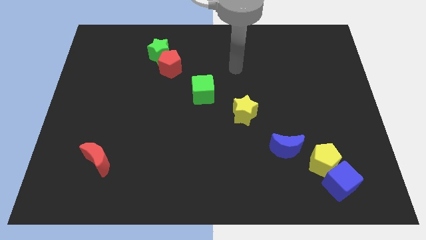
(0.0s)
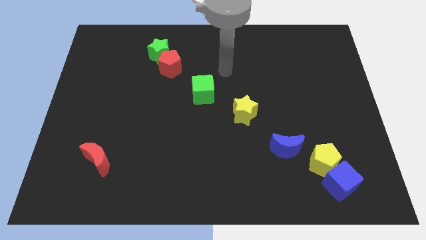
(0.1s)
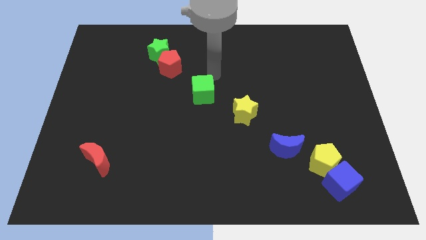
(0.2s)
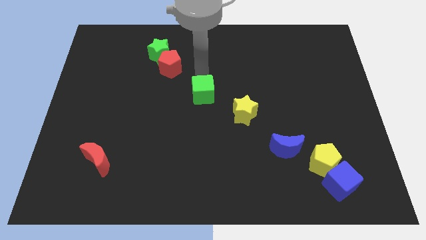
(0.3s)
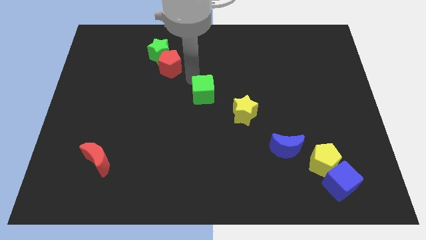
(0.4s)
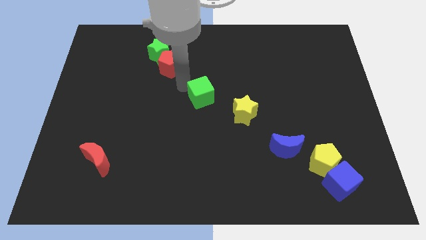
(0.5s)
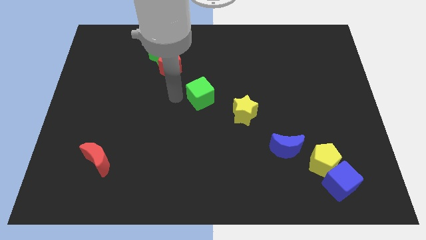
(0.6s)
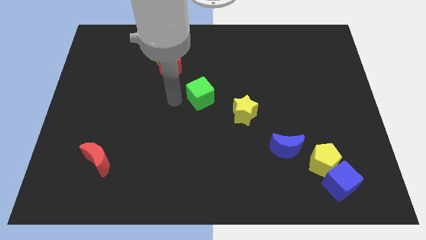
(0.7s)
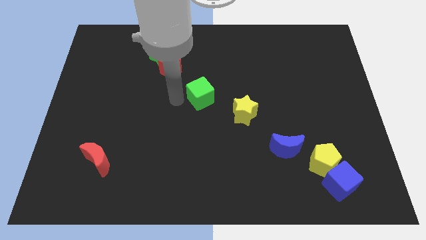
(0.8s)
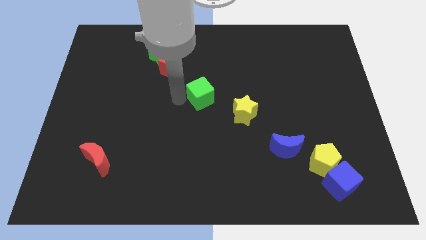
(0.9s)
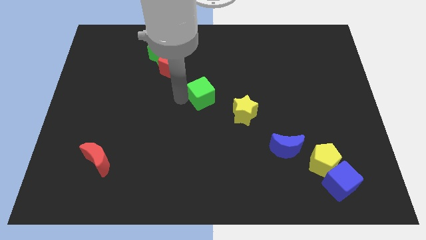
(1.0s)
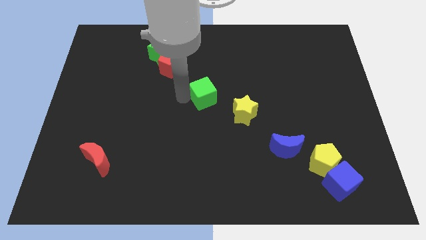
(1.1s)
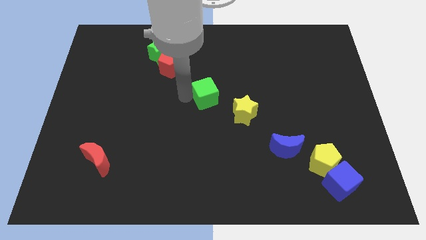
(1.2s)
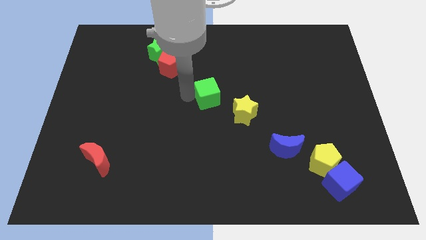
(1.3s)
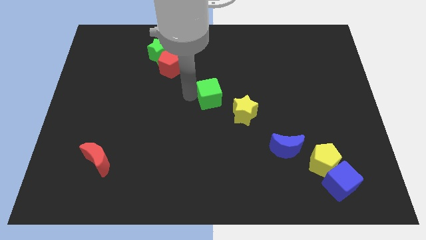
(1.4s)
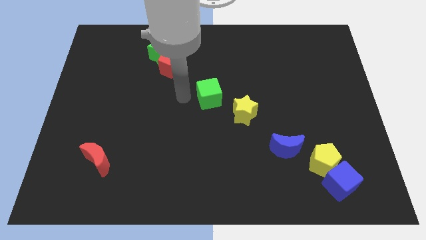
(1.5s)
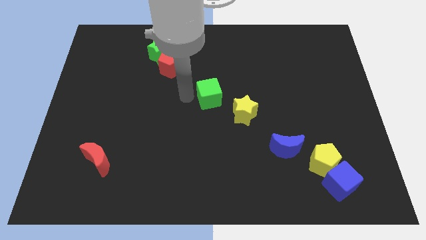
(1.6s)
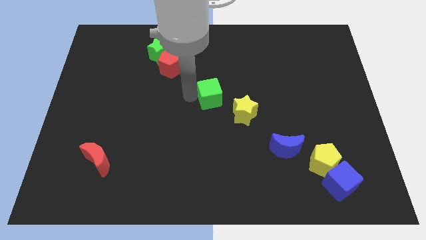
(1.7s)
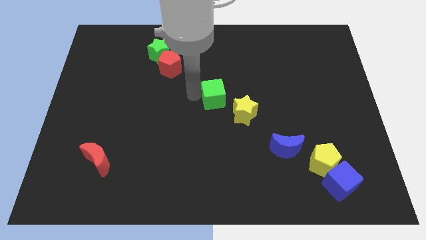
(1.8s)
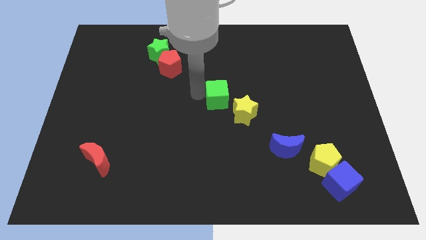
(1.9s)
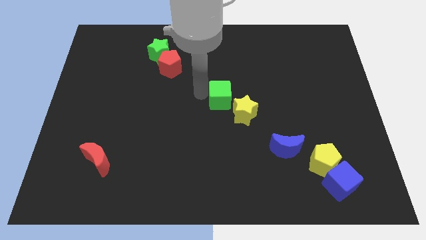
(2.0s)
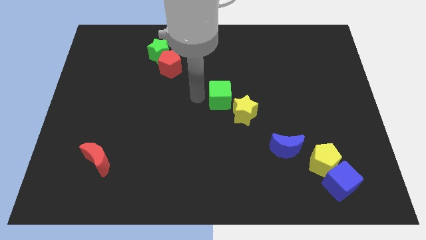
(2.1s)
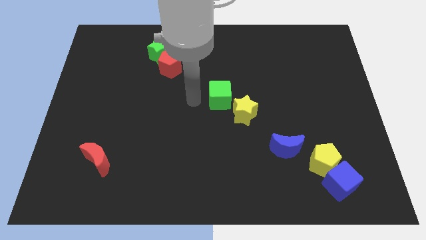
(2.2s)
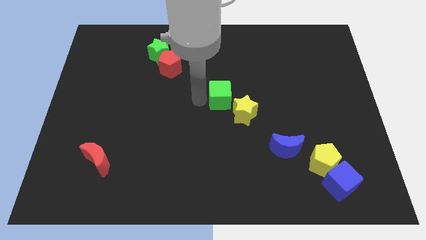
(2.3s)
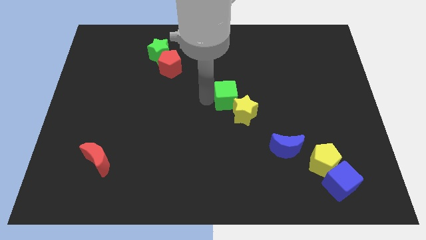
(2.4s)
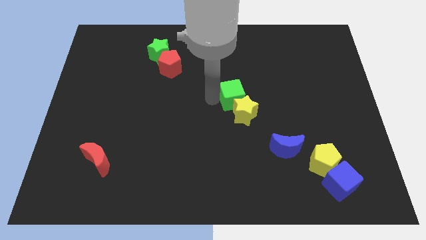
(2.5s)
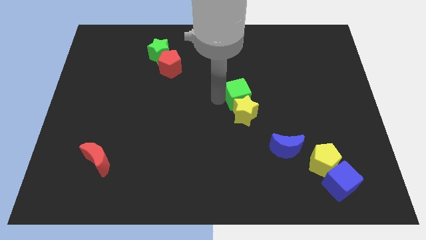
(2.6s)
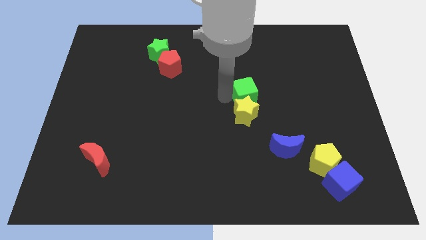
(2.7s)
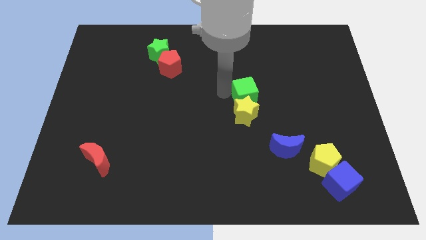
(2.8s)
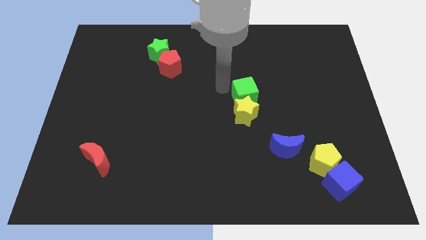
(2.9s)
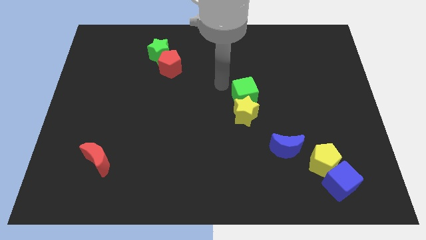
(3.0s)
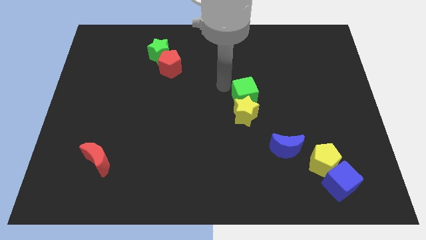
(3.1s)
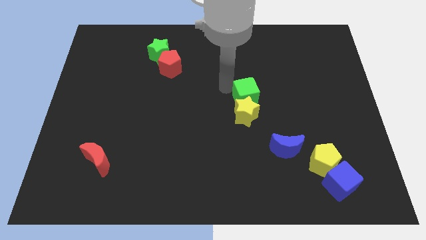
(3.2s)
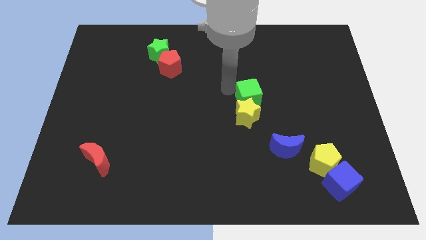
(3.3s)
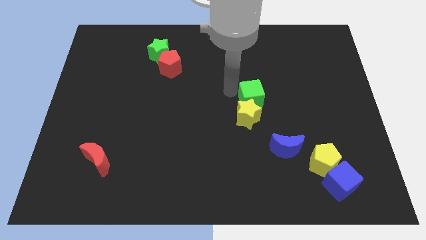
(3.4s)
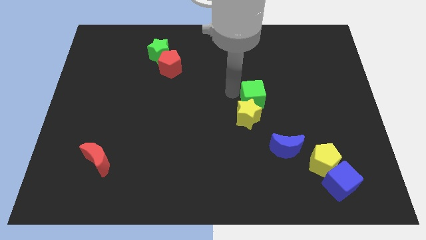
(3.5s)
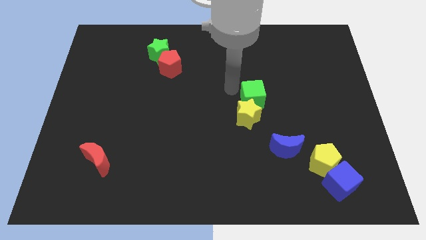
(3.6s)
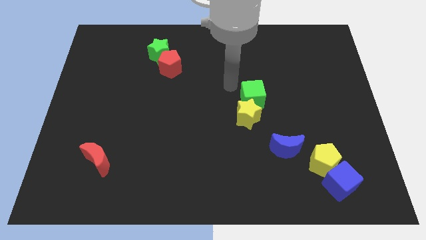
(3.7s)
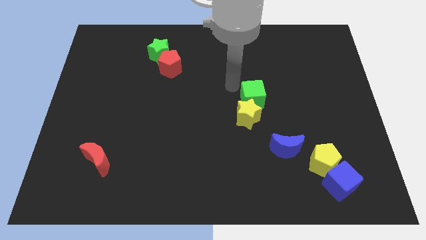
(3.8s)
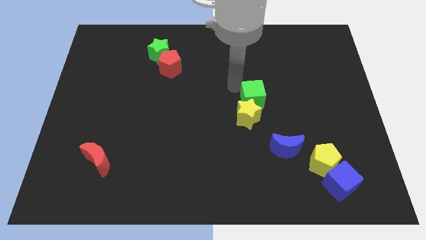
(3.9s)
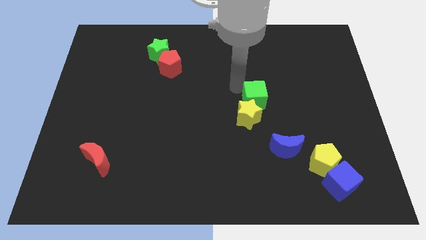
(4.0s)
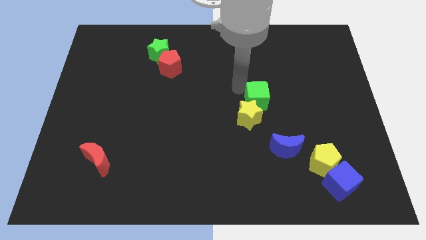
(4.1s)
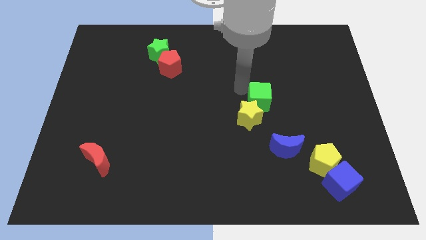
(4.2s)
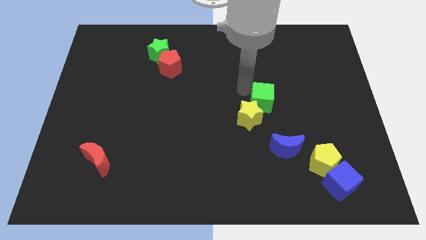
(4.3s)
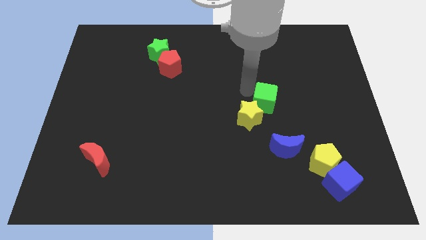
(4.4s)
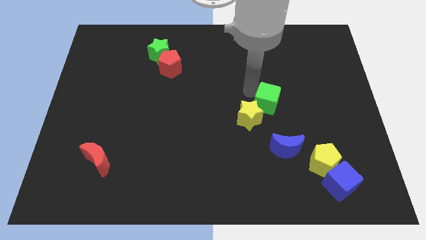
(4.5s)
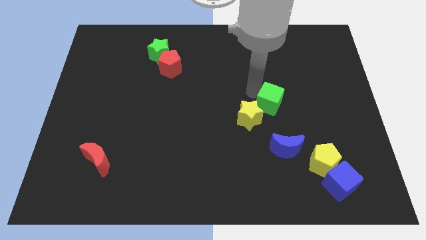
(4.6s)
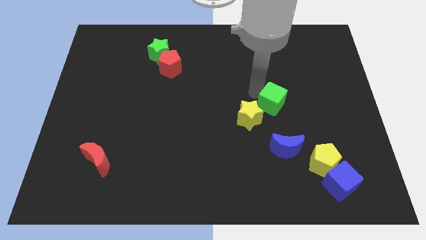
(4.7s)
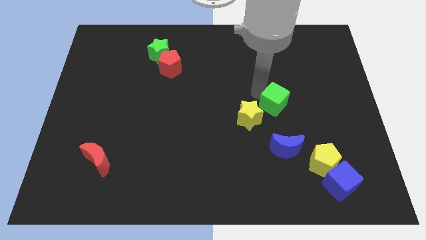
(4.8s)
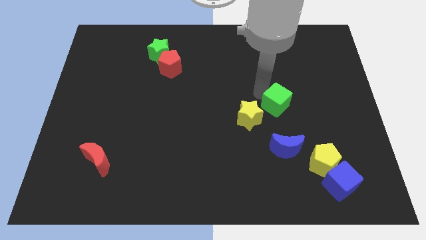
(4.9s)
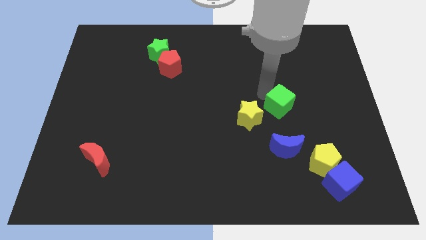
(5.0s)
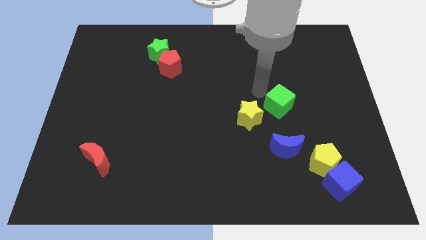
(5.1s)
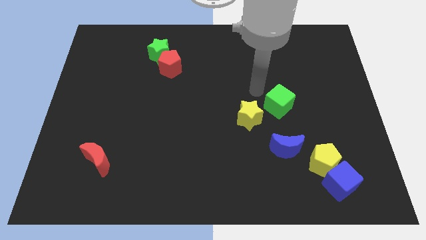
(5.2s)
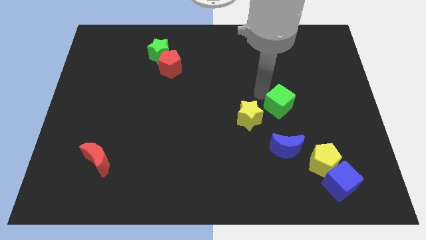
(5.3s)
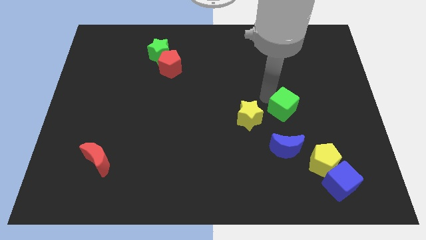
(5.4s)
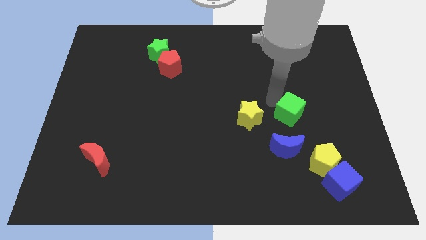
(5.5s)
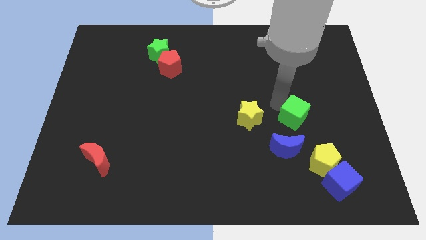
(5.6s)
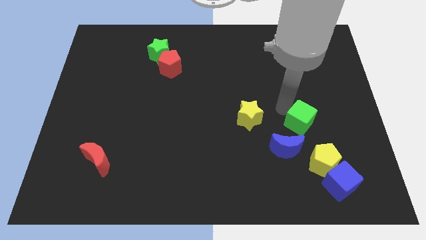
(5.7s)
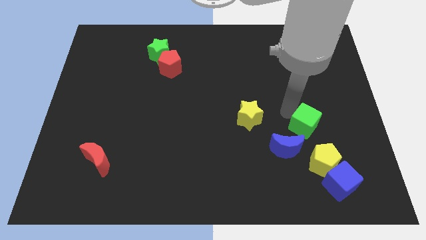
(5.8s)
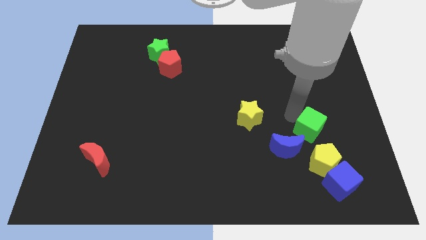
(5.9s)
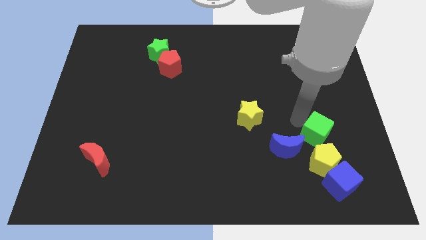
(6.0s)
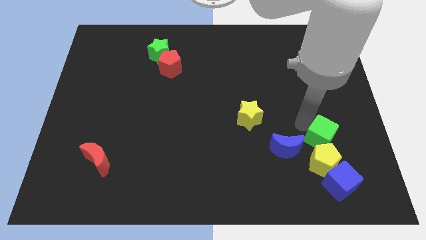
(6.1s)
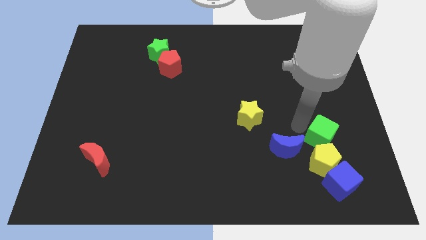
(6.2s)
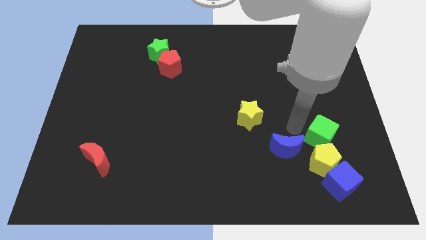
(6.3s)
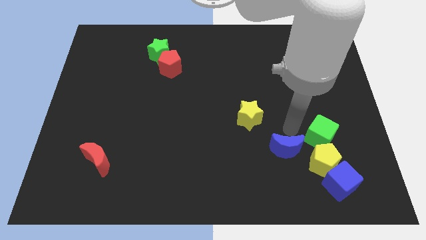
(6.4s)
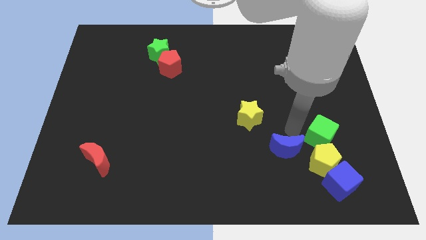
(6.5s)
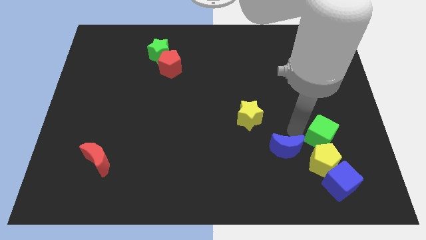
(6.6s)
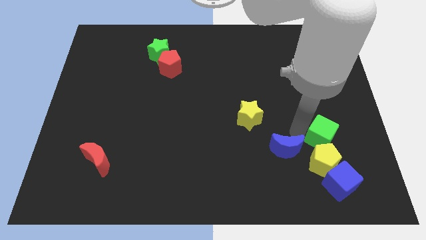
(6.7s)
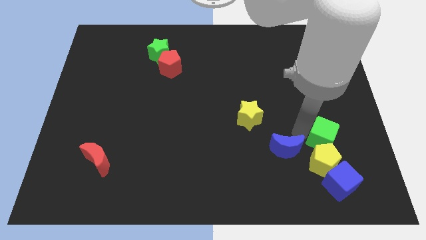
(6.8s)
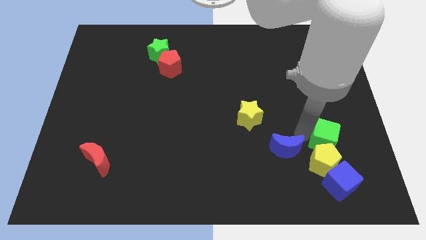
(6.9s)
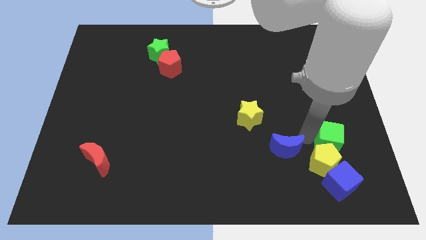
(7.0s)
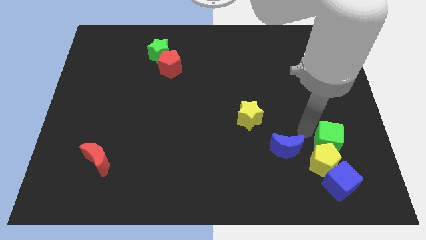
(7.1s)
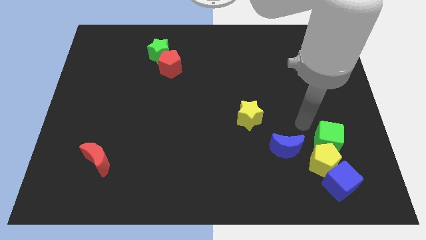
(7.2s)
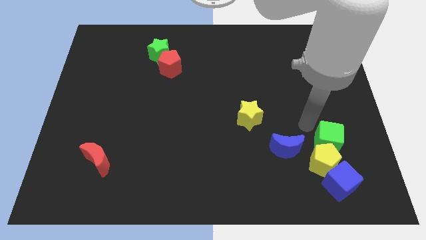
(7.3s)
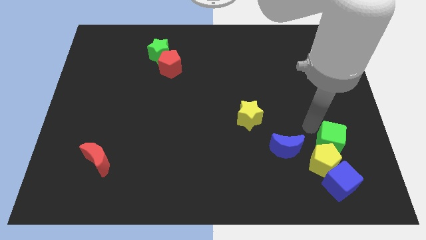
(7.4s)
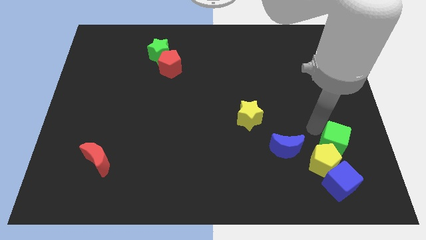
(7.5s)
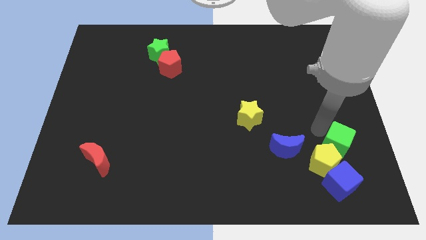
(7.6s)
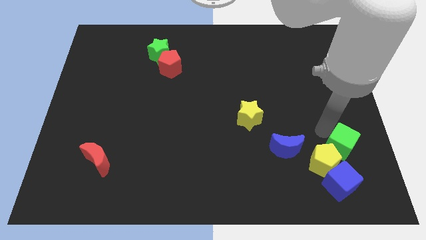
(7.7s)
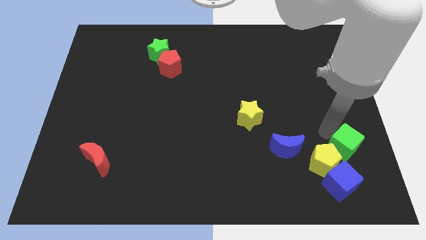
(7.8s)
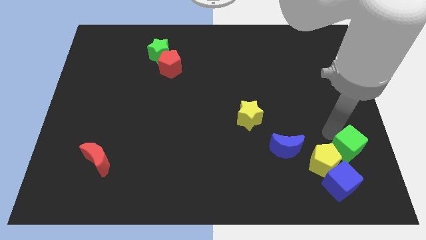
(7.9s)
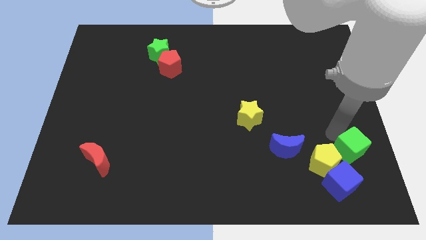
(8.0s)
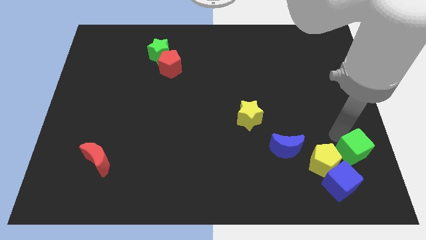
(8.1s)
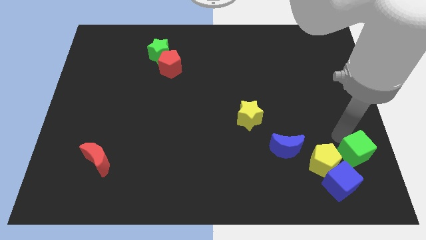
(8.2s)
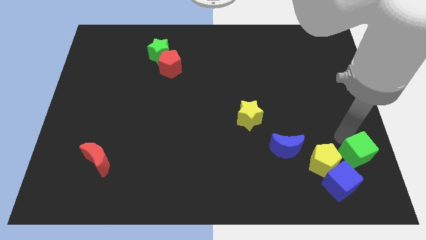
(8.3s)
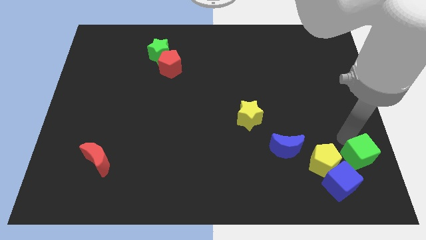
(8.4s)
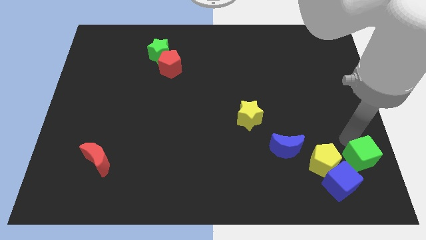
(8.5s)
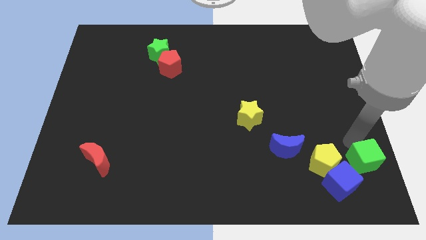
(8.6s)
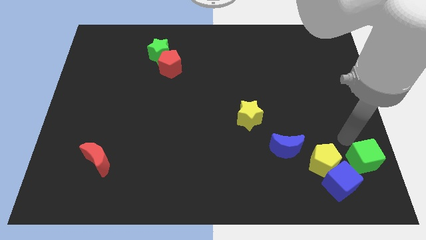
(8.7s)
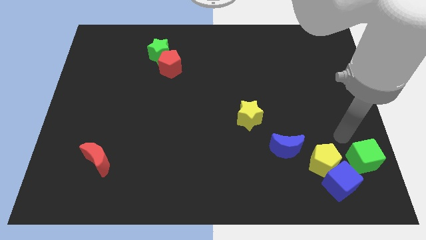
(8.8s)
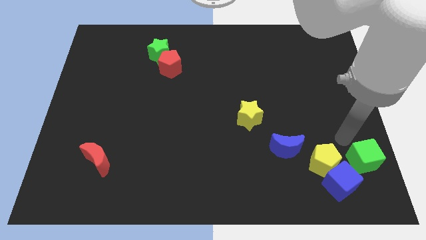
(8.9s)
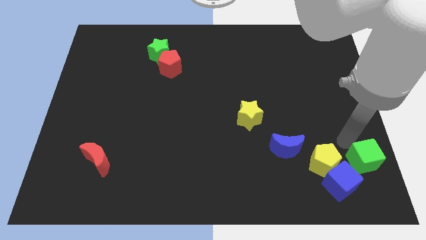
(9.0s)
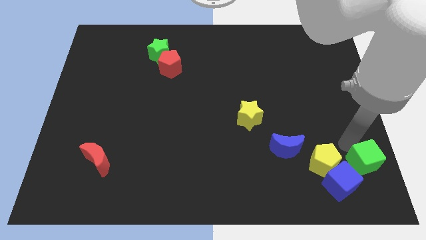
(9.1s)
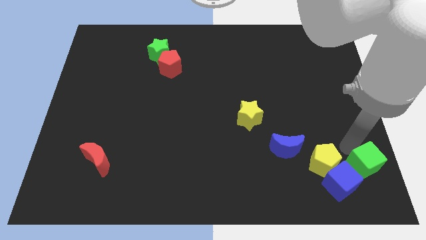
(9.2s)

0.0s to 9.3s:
move the green cube to the lower right corner
